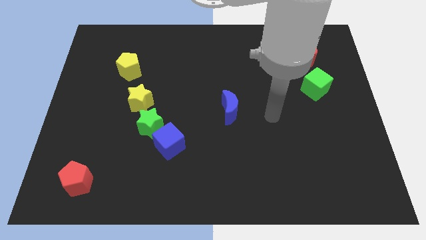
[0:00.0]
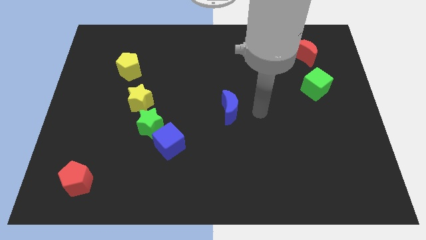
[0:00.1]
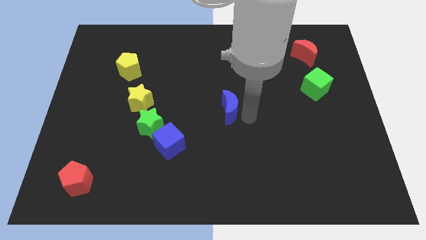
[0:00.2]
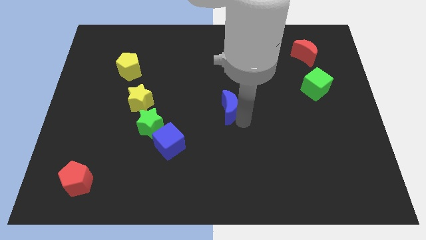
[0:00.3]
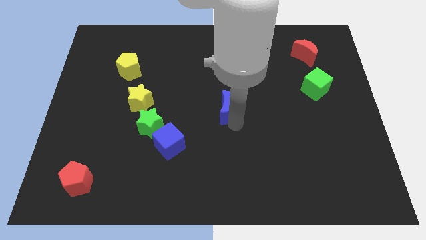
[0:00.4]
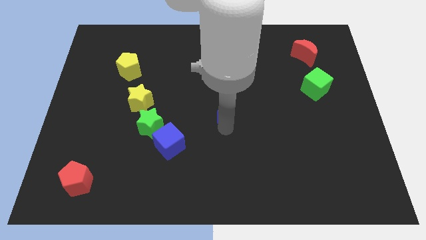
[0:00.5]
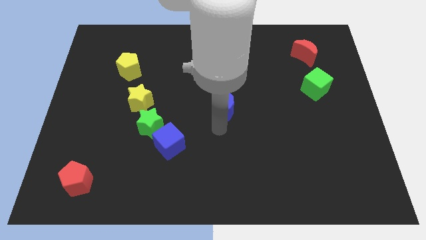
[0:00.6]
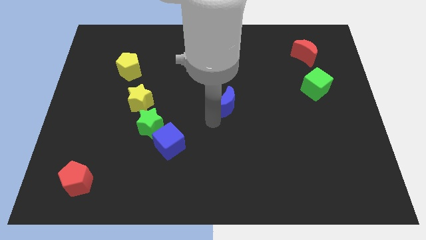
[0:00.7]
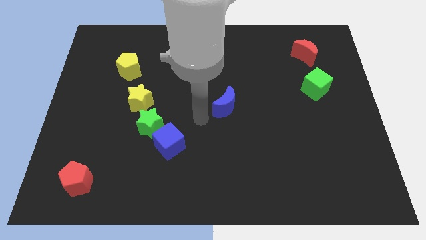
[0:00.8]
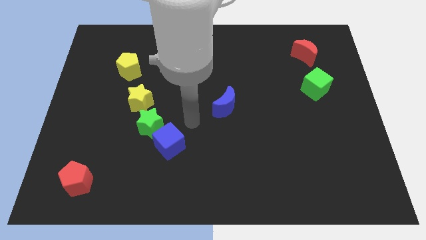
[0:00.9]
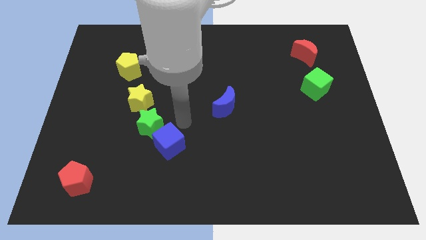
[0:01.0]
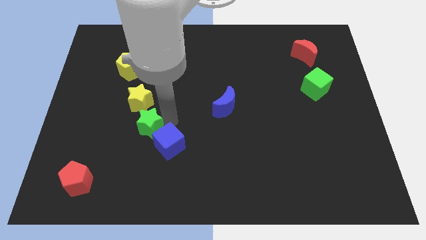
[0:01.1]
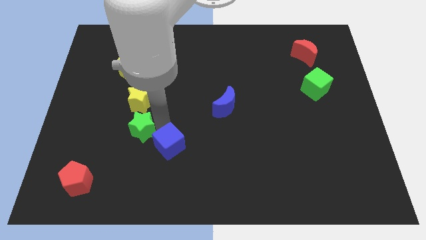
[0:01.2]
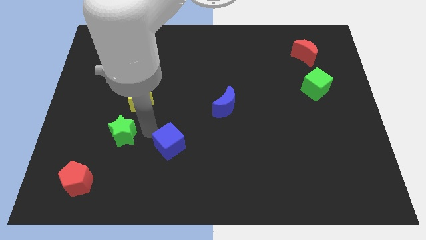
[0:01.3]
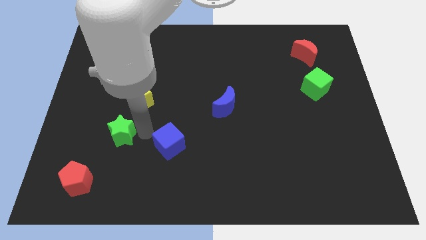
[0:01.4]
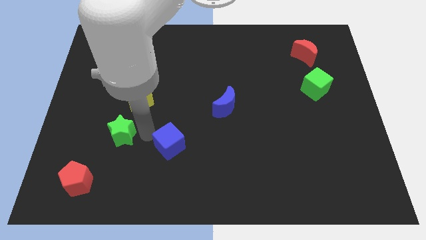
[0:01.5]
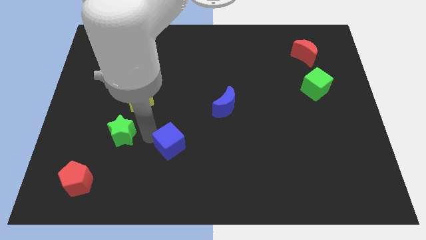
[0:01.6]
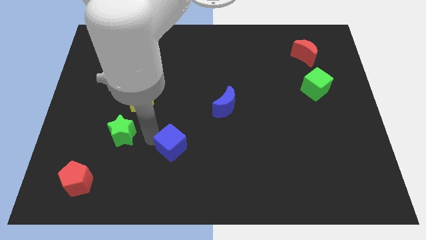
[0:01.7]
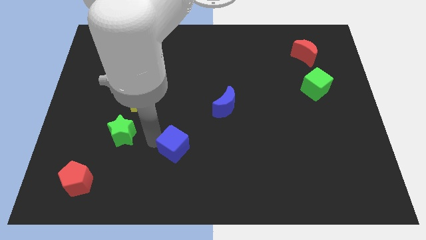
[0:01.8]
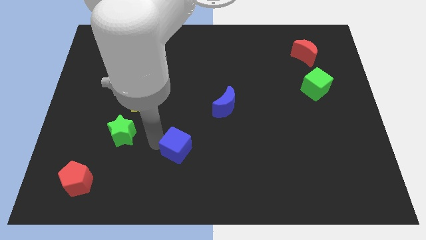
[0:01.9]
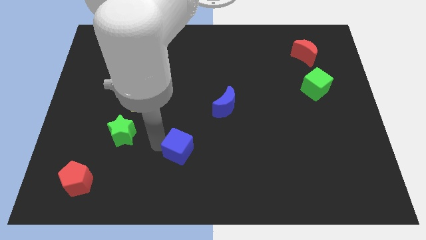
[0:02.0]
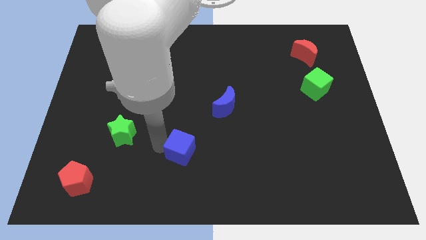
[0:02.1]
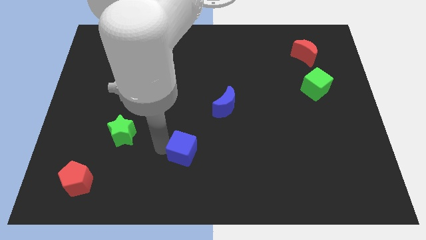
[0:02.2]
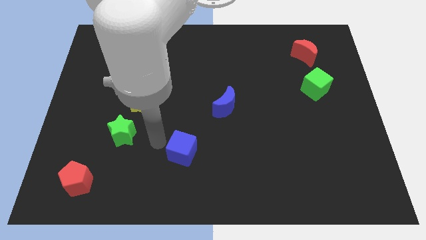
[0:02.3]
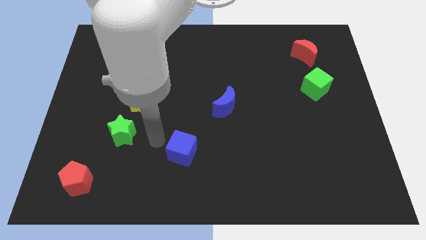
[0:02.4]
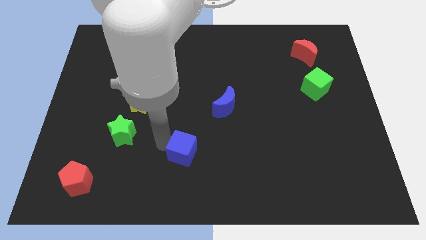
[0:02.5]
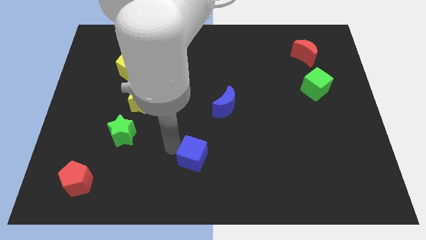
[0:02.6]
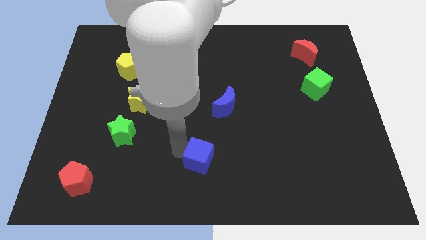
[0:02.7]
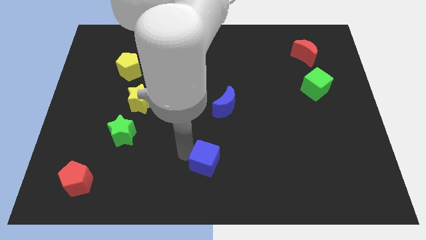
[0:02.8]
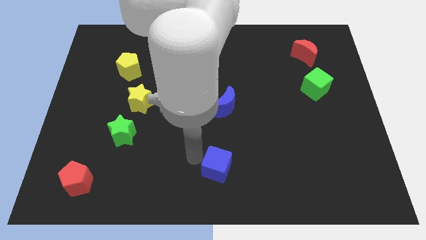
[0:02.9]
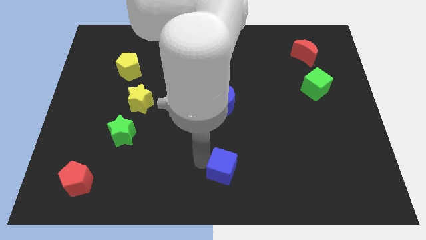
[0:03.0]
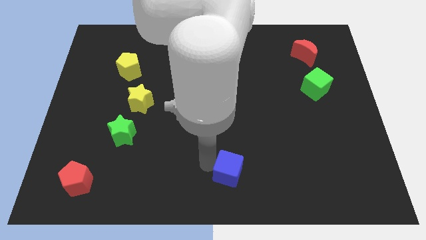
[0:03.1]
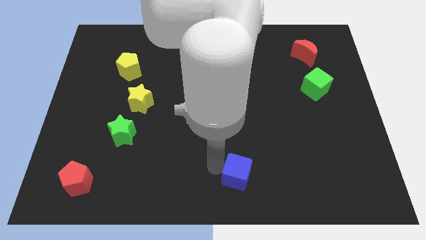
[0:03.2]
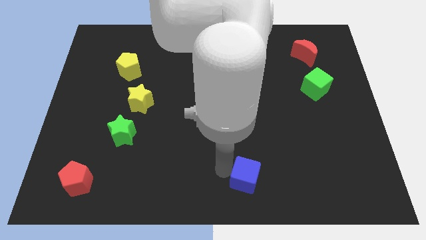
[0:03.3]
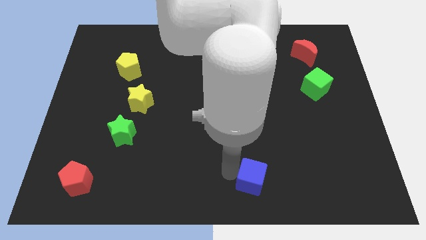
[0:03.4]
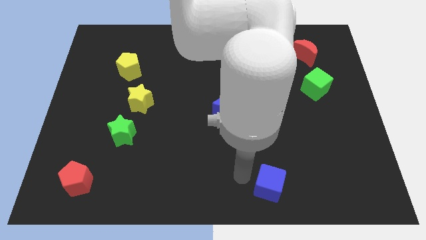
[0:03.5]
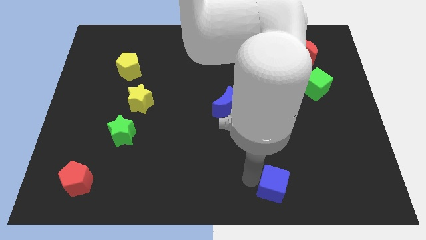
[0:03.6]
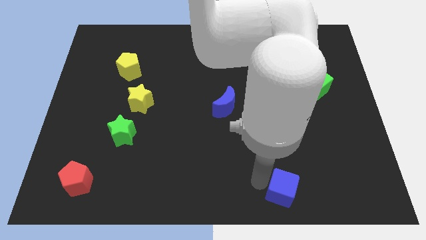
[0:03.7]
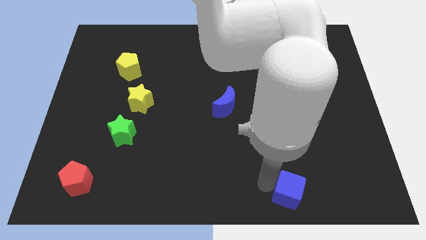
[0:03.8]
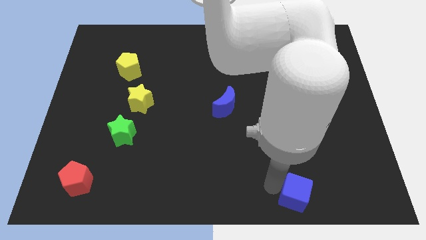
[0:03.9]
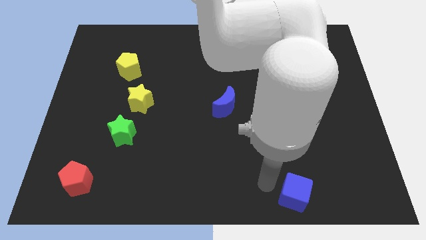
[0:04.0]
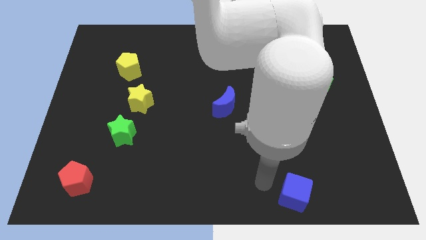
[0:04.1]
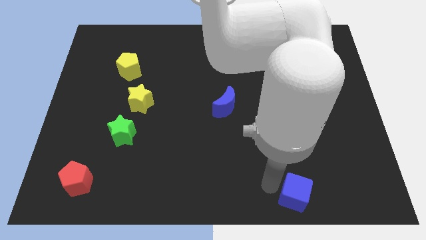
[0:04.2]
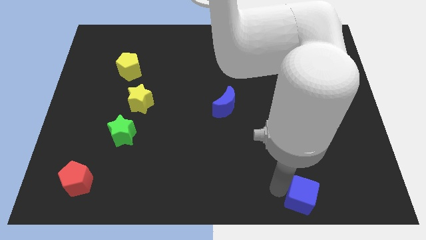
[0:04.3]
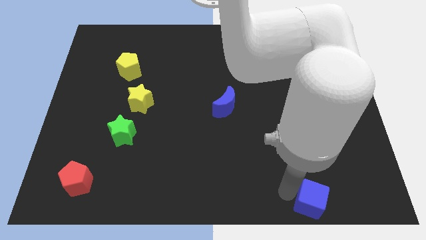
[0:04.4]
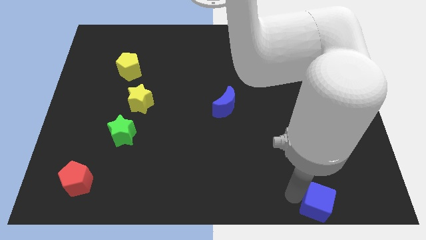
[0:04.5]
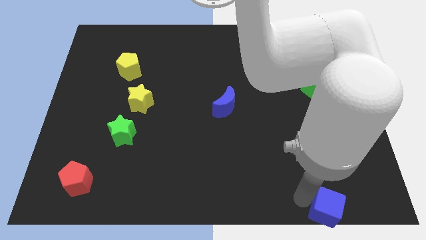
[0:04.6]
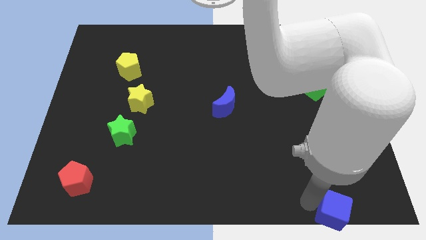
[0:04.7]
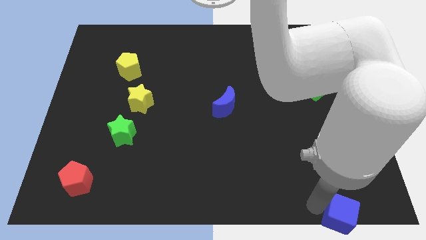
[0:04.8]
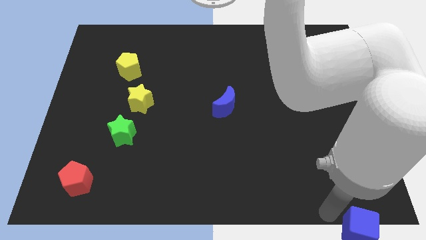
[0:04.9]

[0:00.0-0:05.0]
slide the blue cube to the bottom right

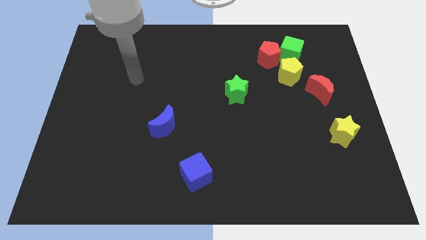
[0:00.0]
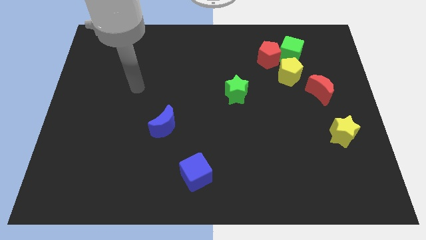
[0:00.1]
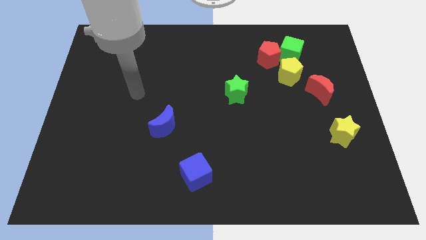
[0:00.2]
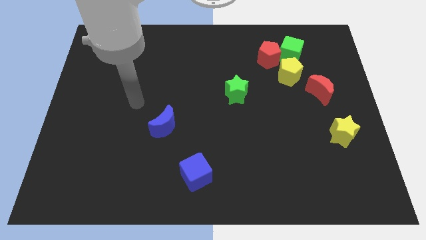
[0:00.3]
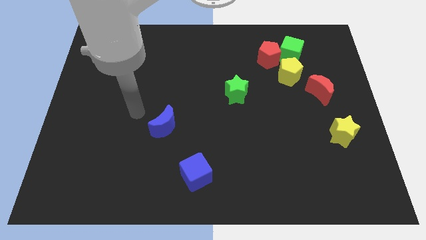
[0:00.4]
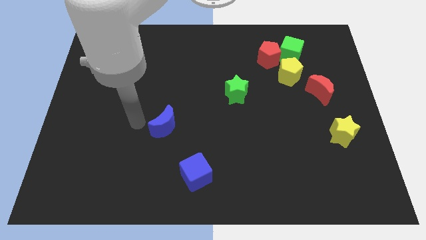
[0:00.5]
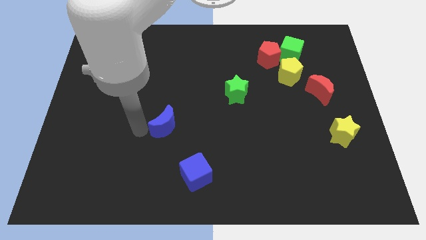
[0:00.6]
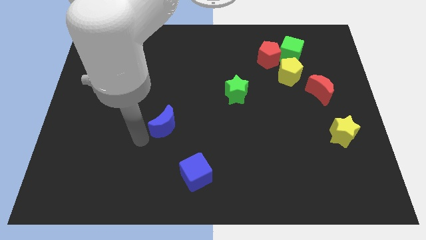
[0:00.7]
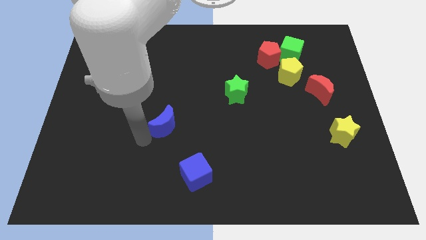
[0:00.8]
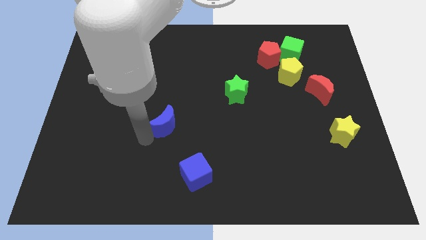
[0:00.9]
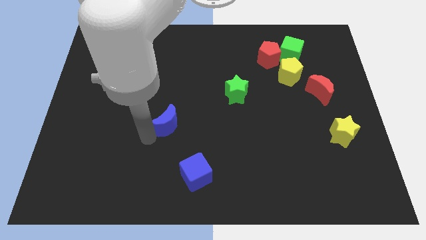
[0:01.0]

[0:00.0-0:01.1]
slide the blue moon to the middle
